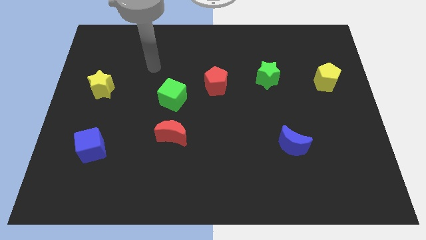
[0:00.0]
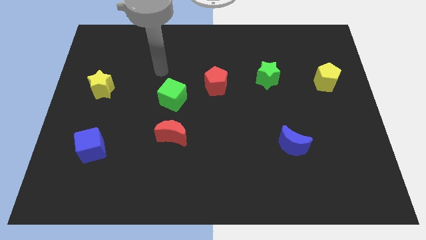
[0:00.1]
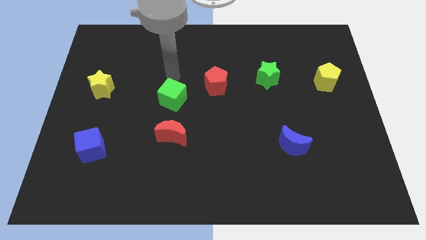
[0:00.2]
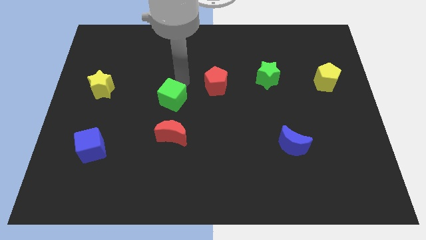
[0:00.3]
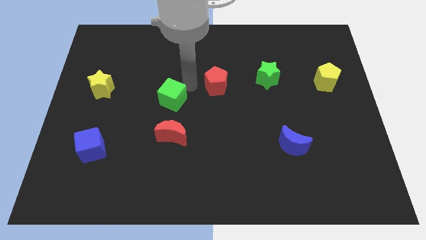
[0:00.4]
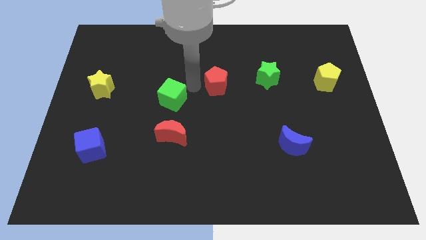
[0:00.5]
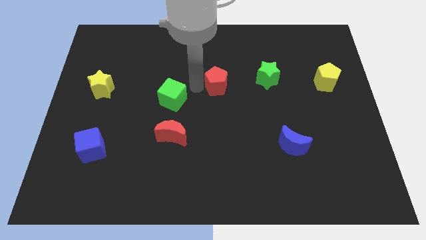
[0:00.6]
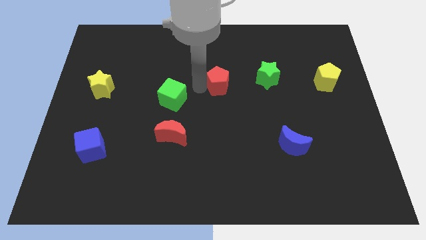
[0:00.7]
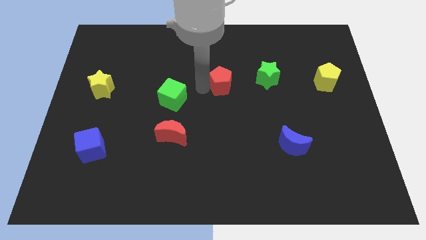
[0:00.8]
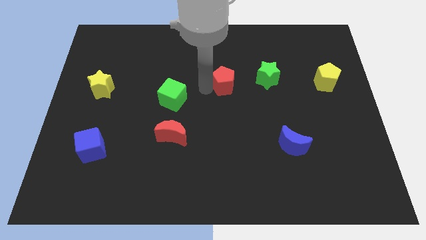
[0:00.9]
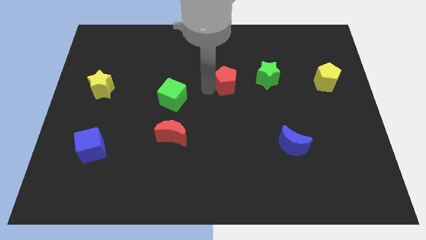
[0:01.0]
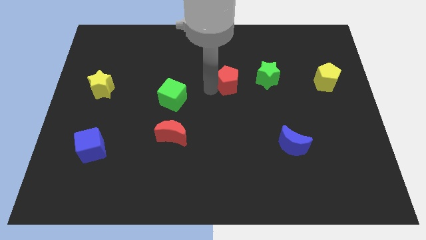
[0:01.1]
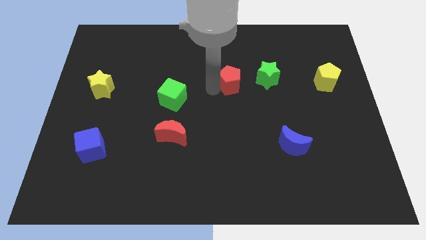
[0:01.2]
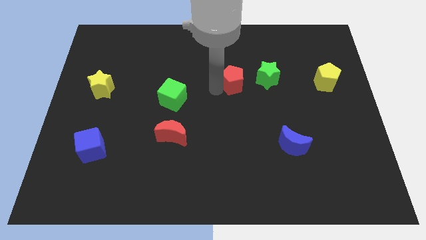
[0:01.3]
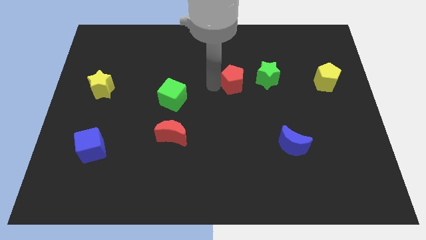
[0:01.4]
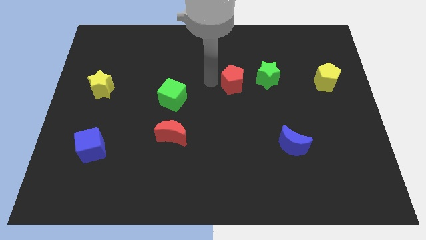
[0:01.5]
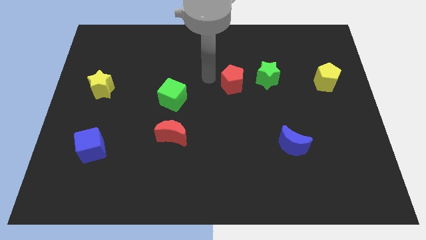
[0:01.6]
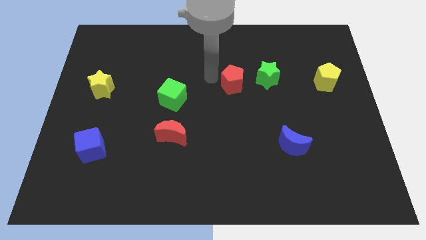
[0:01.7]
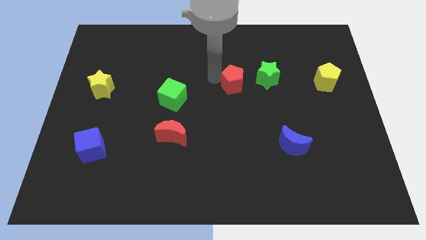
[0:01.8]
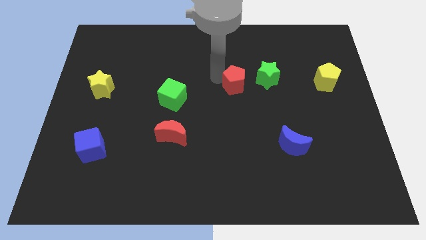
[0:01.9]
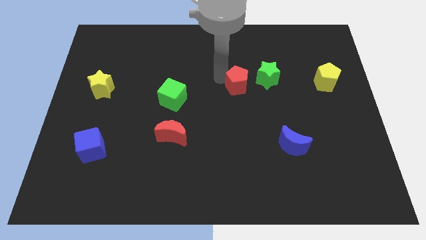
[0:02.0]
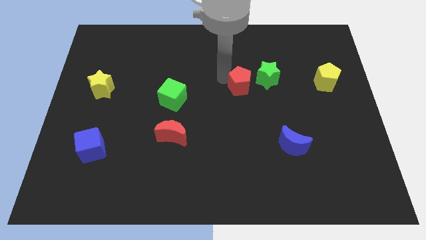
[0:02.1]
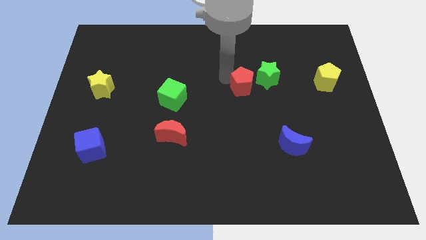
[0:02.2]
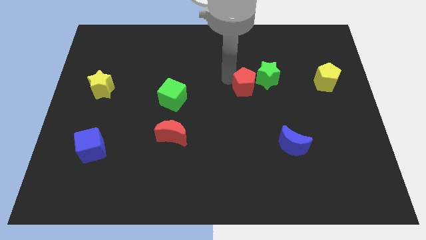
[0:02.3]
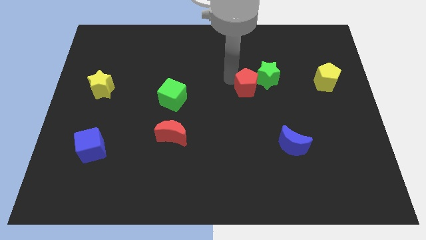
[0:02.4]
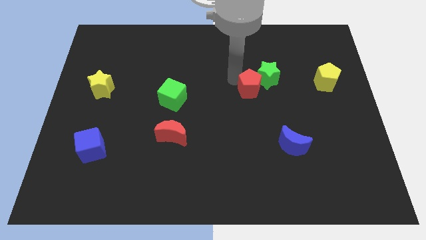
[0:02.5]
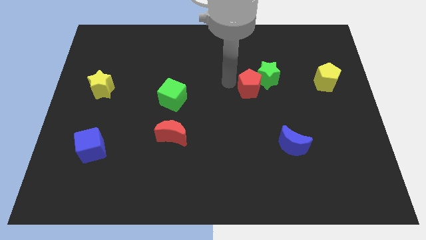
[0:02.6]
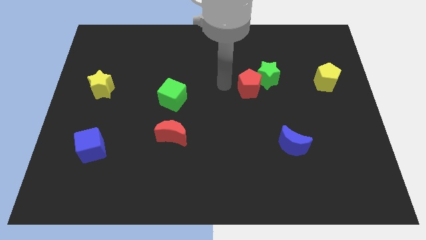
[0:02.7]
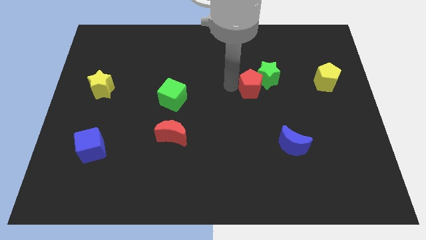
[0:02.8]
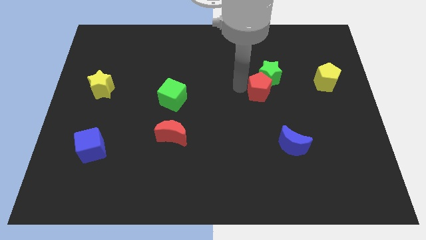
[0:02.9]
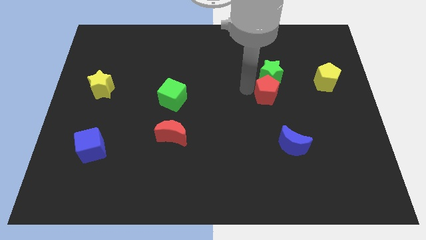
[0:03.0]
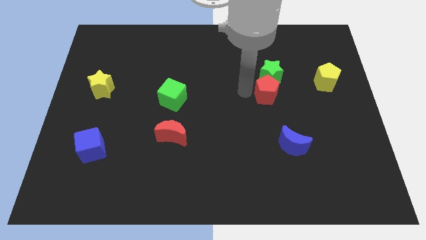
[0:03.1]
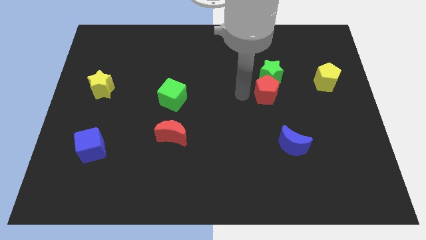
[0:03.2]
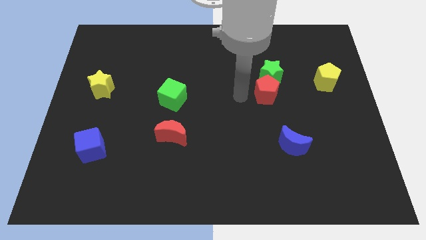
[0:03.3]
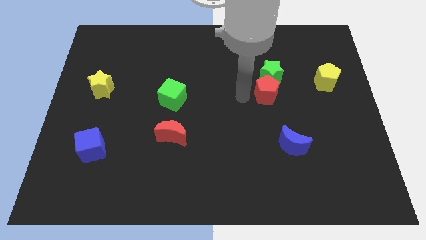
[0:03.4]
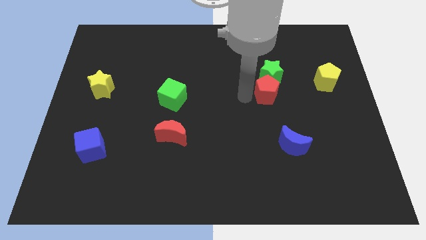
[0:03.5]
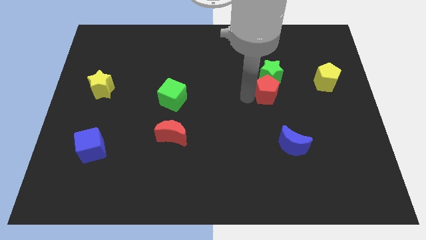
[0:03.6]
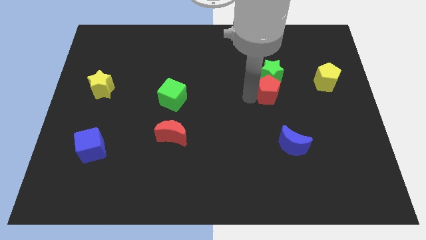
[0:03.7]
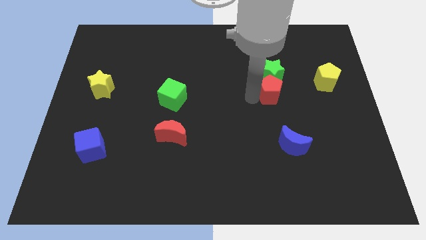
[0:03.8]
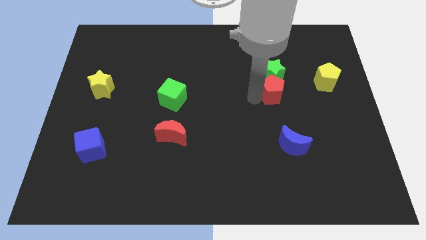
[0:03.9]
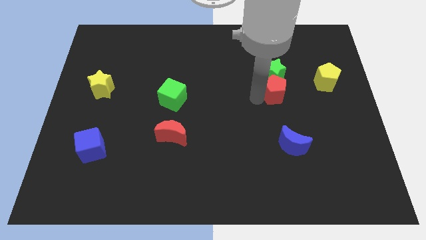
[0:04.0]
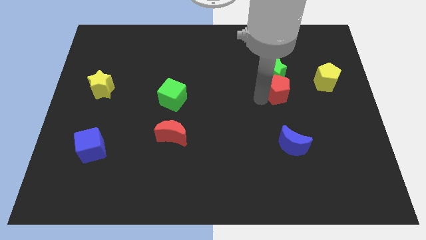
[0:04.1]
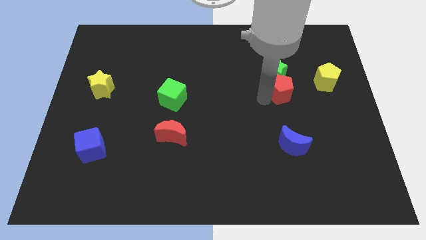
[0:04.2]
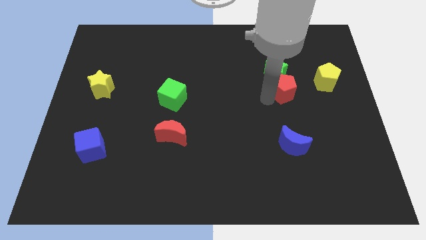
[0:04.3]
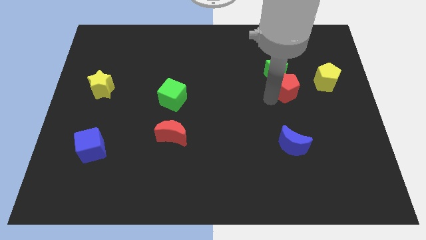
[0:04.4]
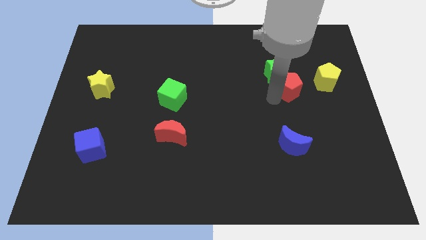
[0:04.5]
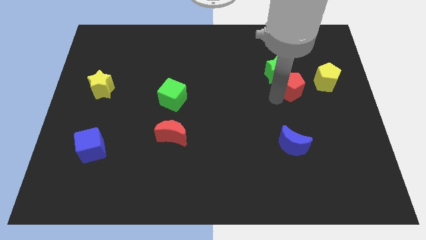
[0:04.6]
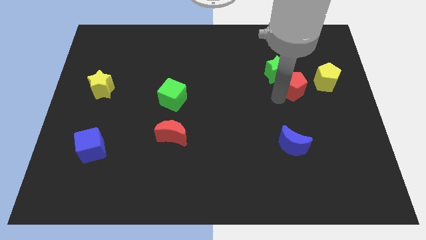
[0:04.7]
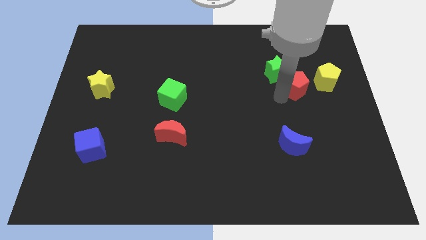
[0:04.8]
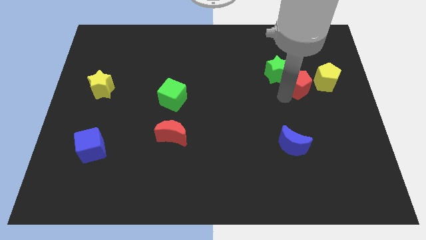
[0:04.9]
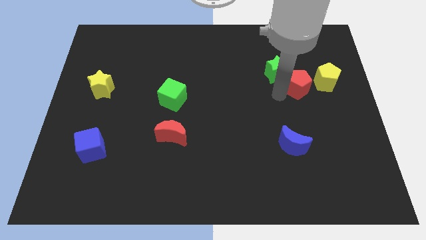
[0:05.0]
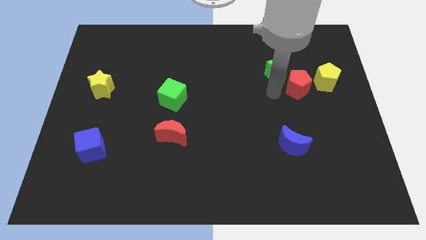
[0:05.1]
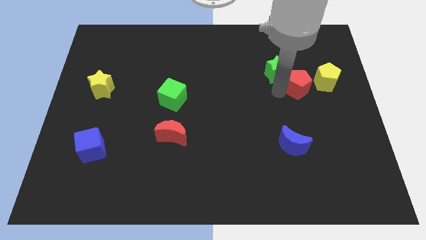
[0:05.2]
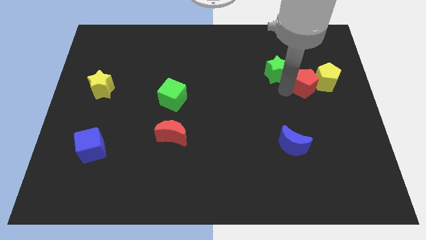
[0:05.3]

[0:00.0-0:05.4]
slide the red pentagon close to the yellow pentagon

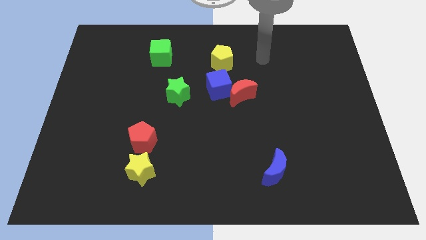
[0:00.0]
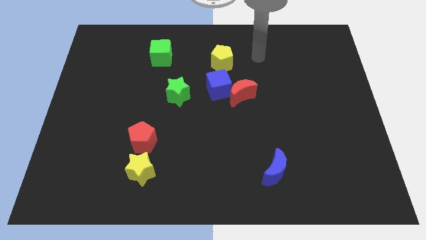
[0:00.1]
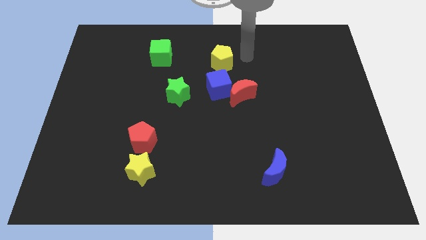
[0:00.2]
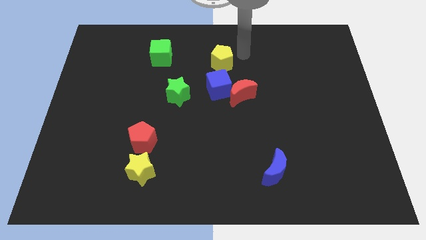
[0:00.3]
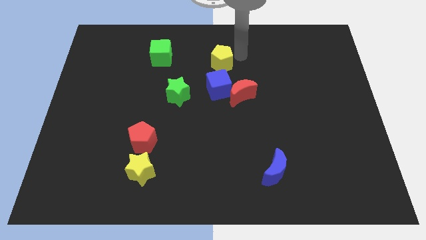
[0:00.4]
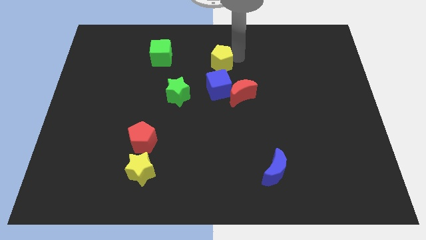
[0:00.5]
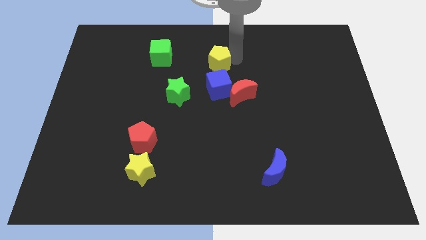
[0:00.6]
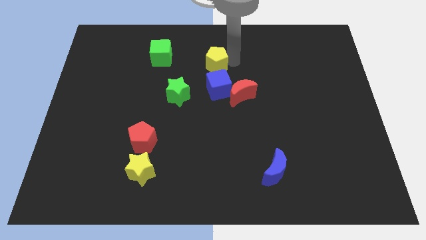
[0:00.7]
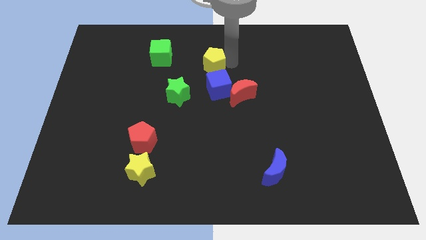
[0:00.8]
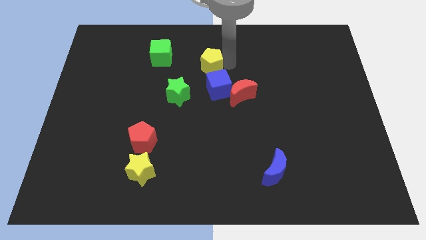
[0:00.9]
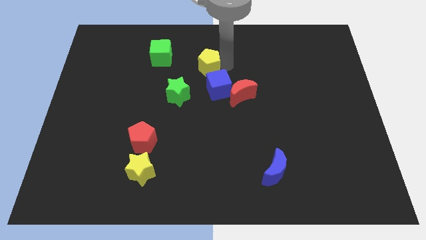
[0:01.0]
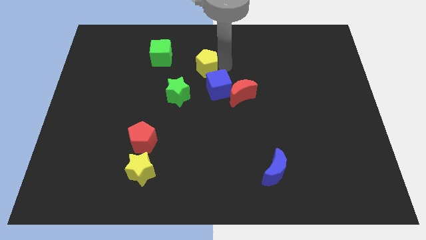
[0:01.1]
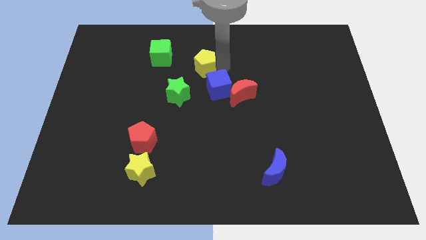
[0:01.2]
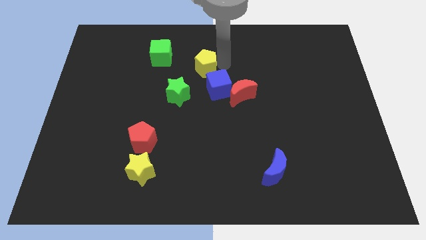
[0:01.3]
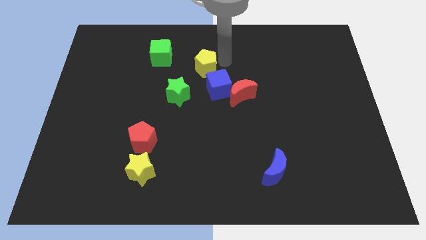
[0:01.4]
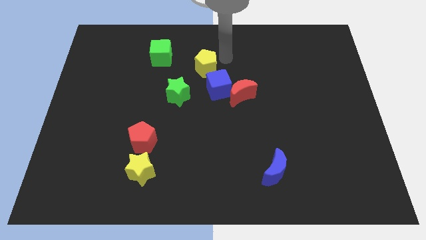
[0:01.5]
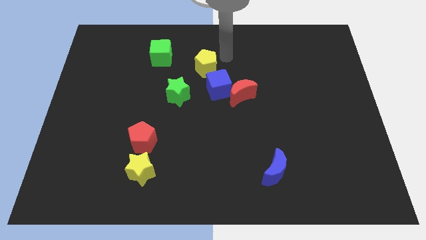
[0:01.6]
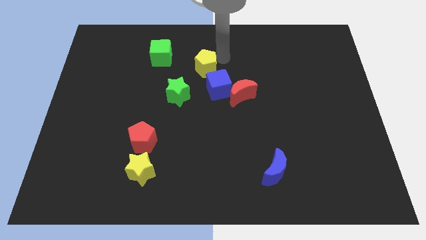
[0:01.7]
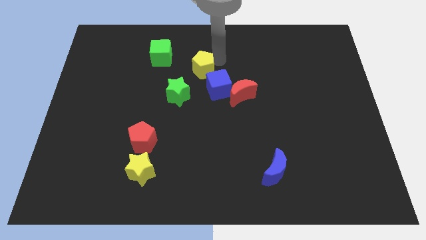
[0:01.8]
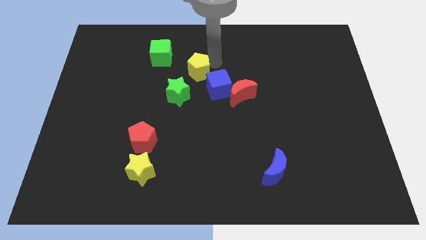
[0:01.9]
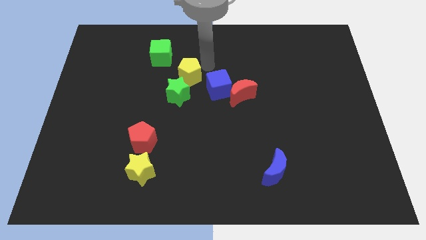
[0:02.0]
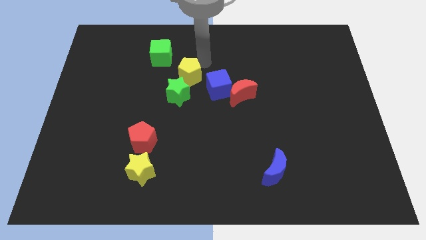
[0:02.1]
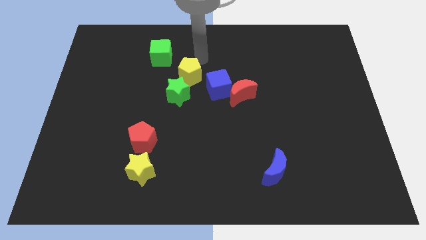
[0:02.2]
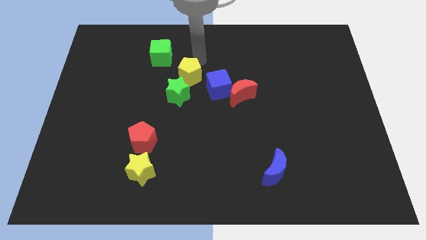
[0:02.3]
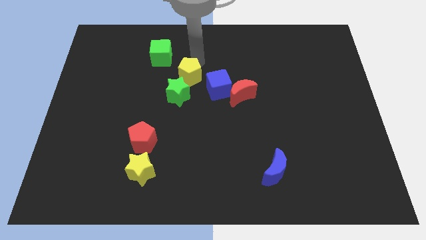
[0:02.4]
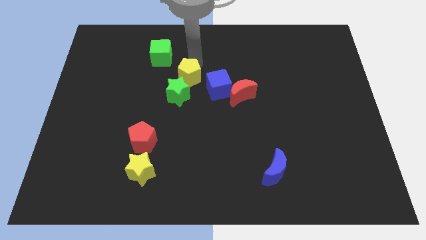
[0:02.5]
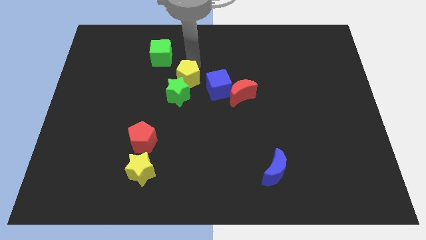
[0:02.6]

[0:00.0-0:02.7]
move the yellow pentagon close to the green star
